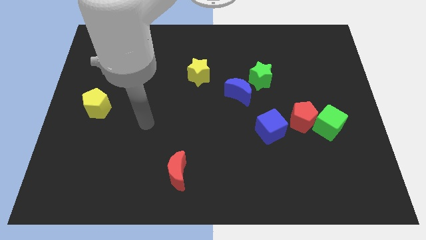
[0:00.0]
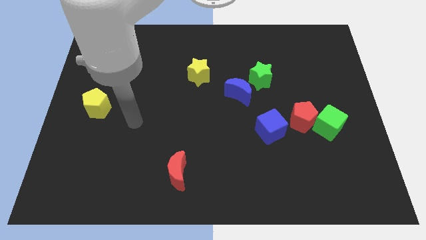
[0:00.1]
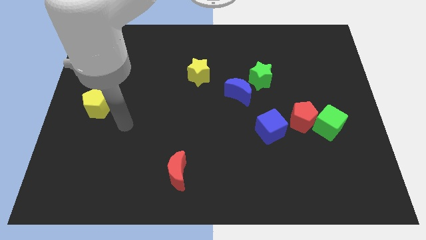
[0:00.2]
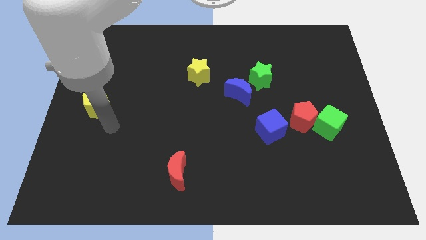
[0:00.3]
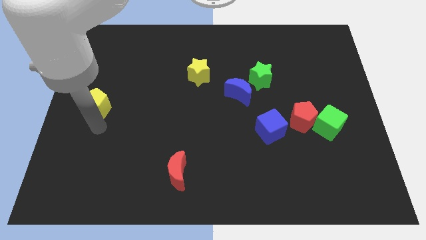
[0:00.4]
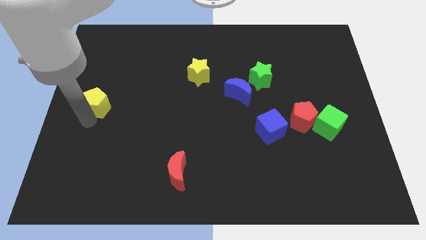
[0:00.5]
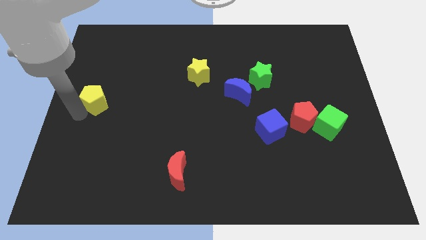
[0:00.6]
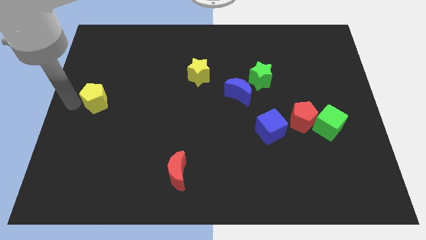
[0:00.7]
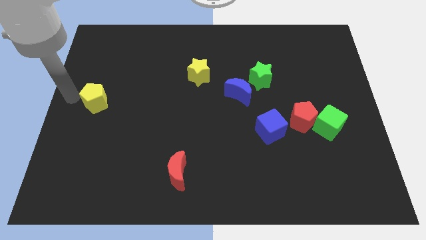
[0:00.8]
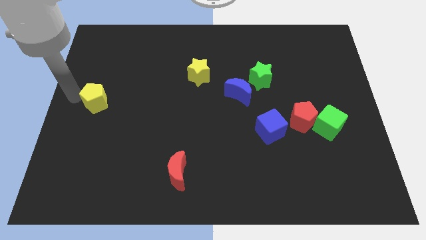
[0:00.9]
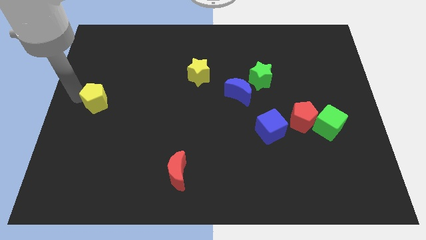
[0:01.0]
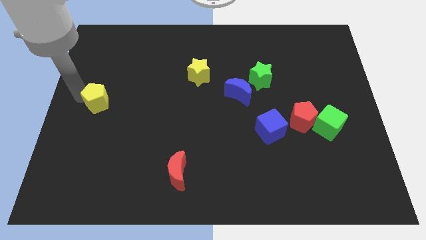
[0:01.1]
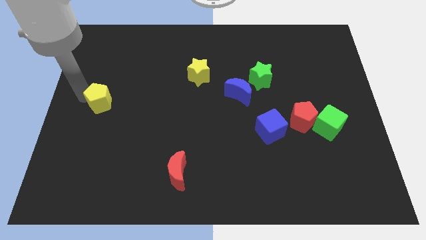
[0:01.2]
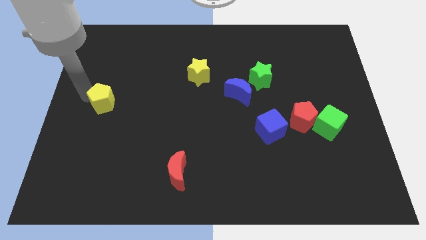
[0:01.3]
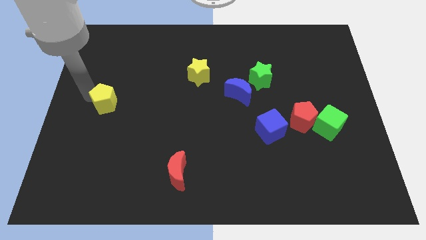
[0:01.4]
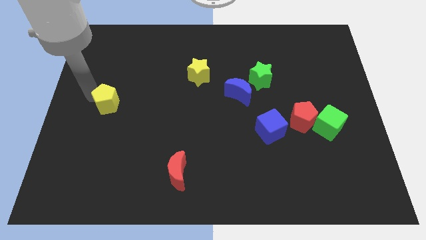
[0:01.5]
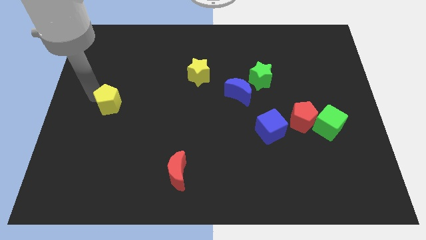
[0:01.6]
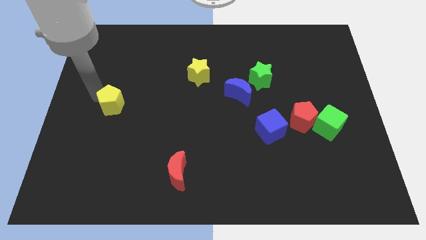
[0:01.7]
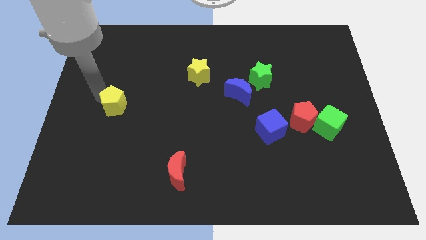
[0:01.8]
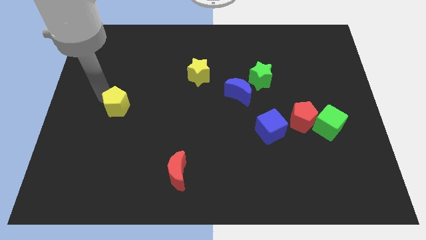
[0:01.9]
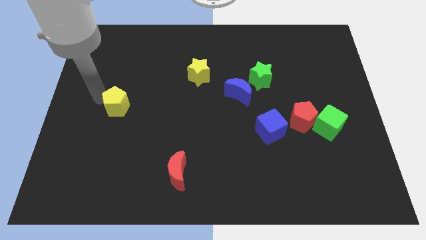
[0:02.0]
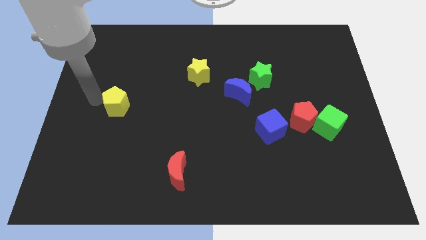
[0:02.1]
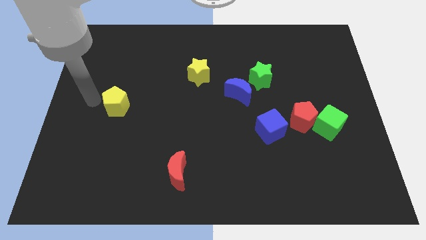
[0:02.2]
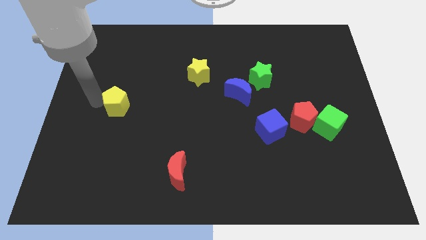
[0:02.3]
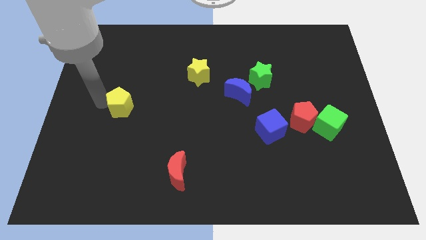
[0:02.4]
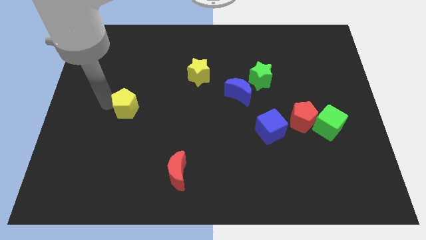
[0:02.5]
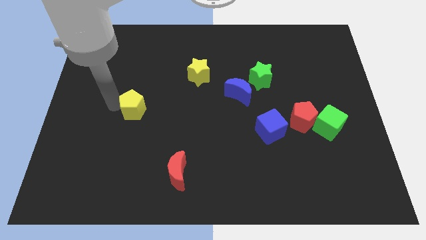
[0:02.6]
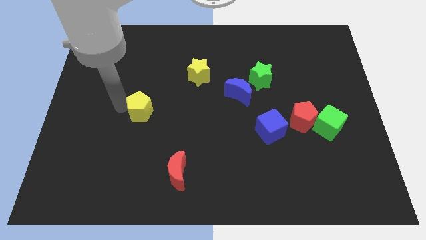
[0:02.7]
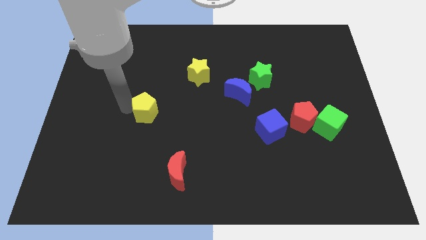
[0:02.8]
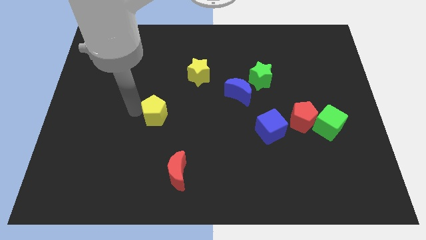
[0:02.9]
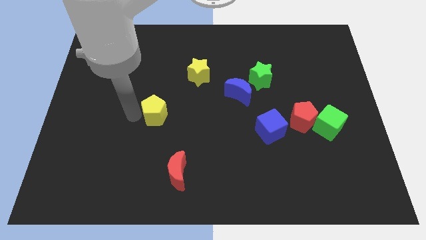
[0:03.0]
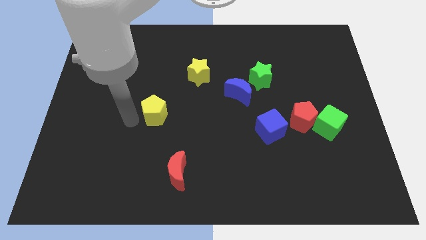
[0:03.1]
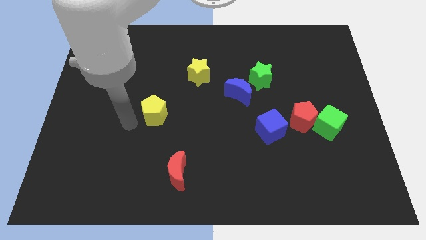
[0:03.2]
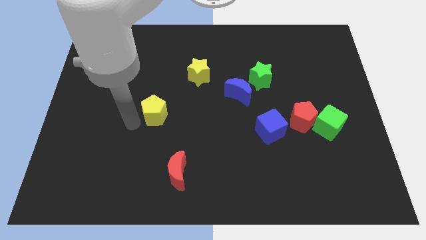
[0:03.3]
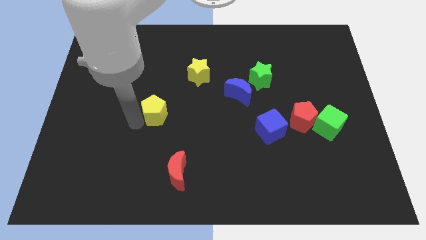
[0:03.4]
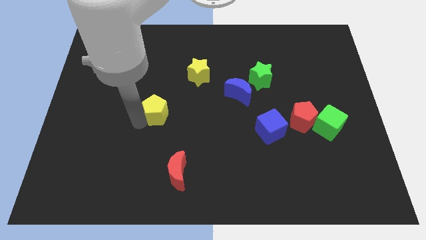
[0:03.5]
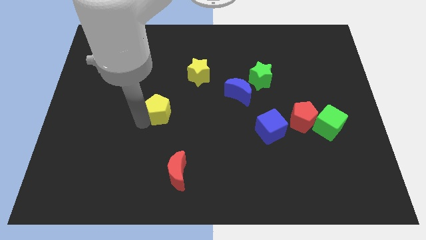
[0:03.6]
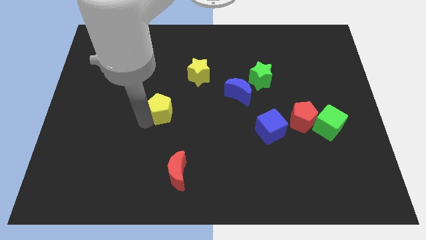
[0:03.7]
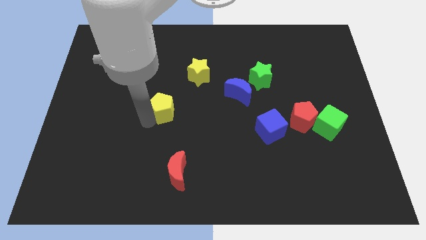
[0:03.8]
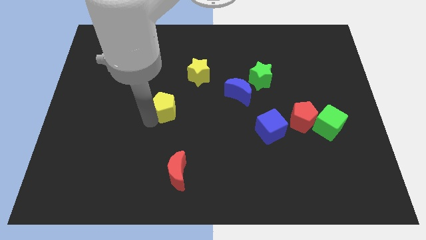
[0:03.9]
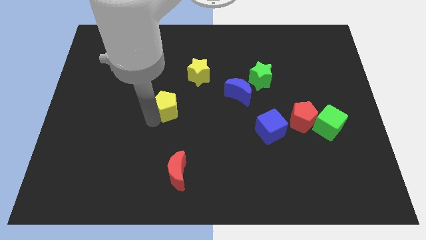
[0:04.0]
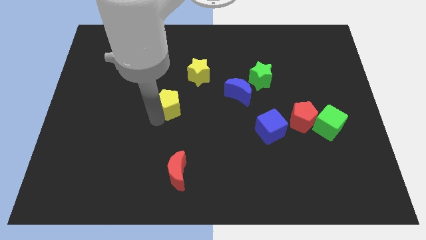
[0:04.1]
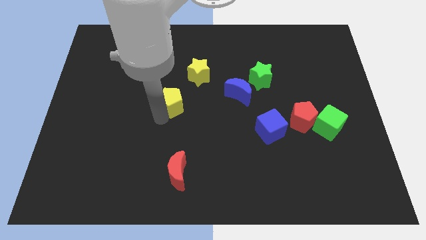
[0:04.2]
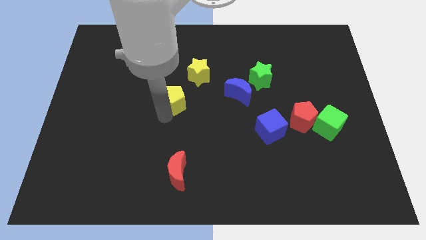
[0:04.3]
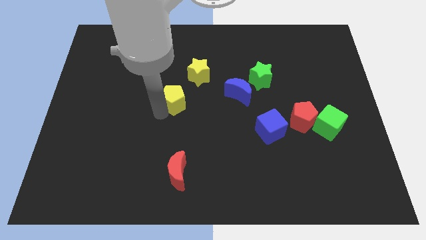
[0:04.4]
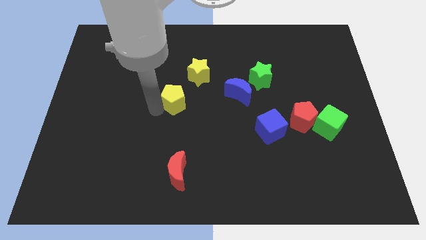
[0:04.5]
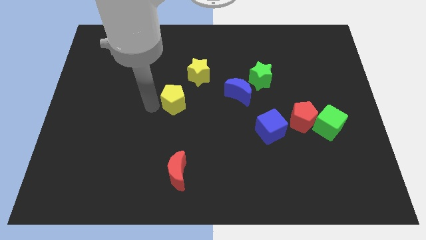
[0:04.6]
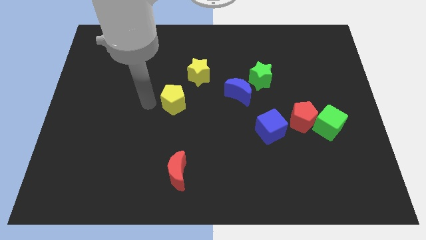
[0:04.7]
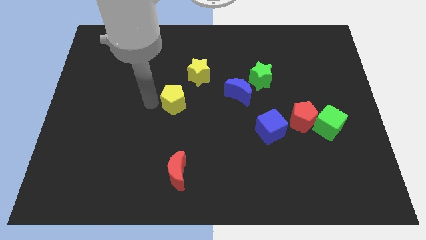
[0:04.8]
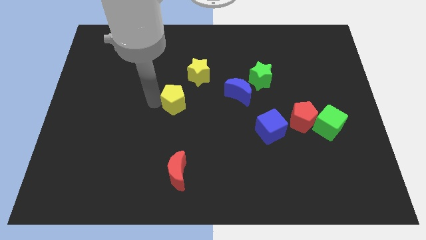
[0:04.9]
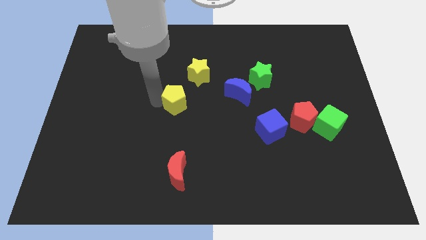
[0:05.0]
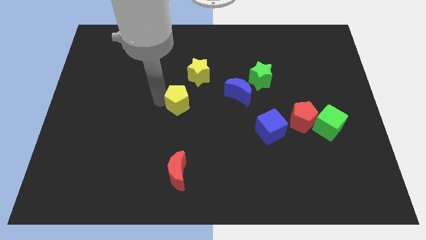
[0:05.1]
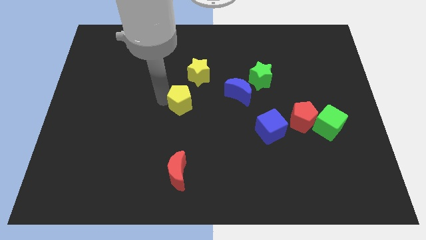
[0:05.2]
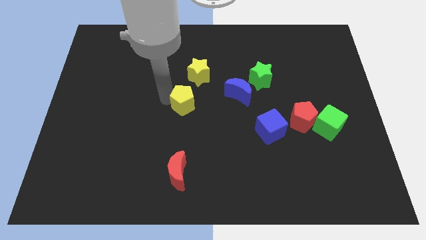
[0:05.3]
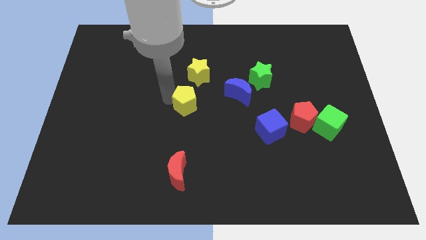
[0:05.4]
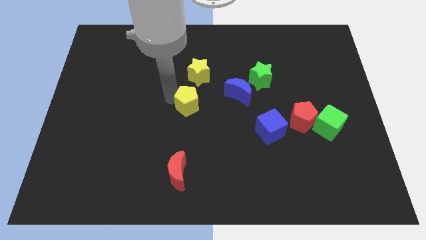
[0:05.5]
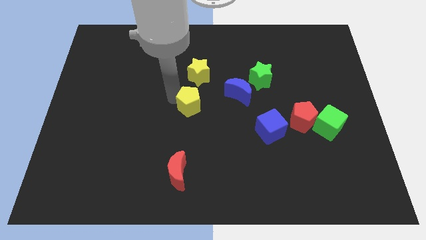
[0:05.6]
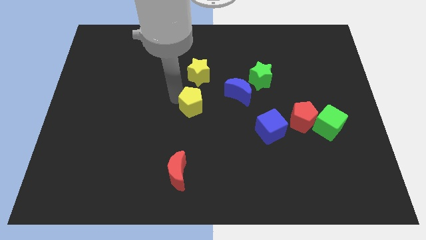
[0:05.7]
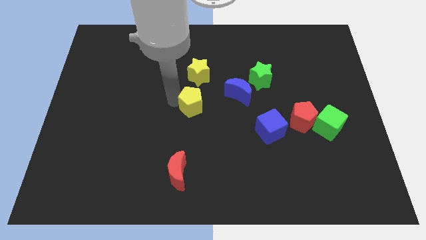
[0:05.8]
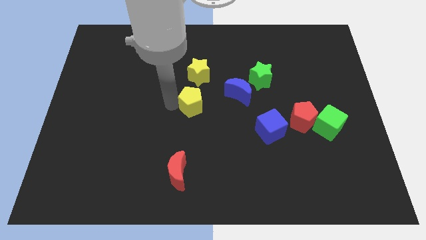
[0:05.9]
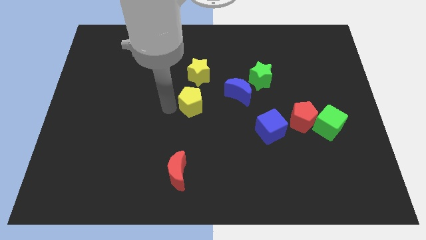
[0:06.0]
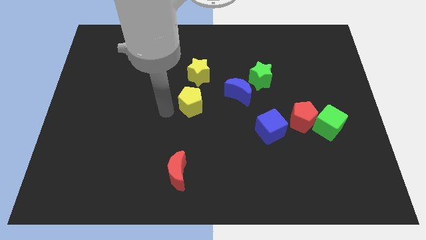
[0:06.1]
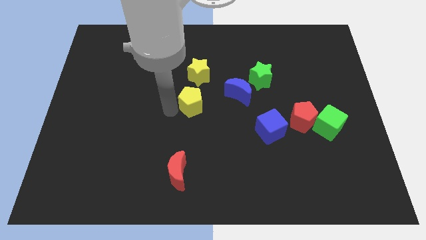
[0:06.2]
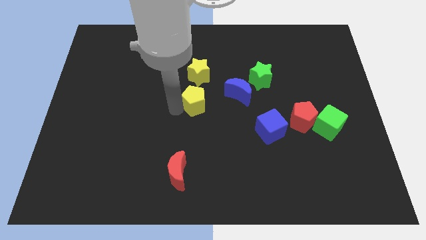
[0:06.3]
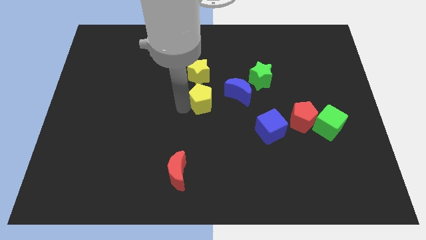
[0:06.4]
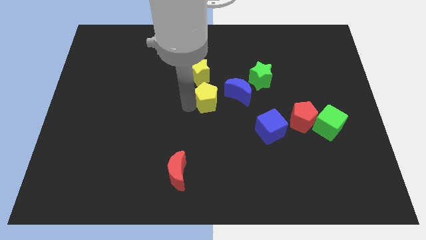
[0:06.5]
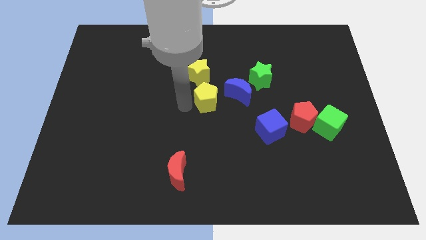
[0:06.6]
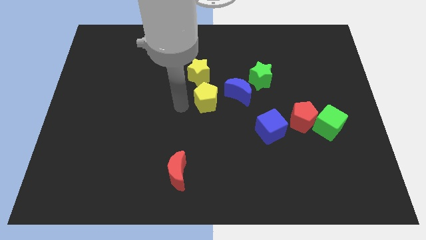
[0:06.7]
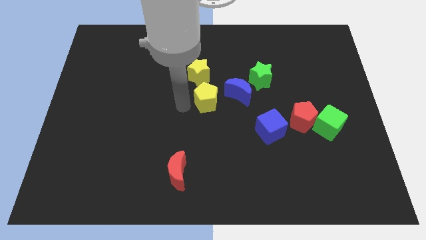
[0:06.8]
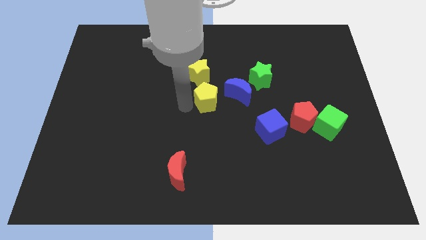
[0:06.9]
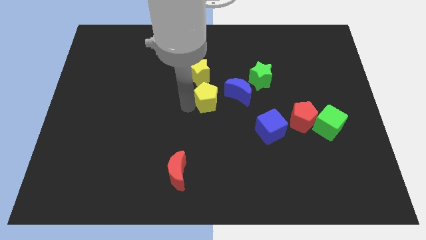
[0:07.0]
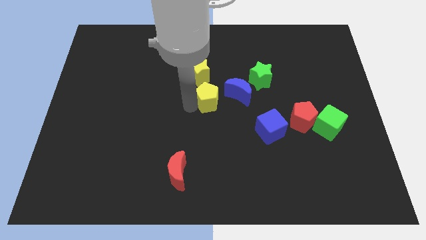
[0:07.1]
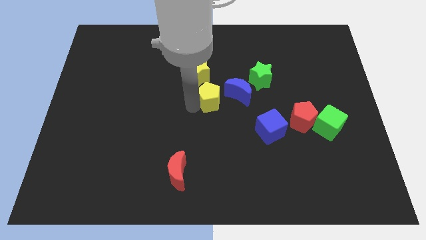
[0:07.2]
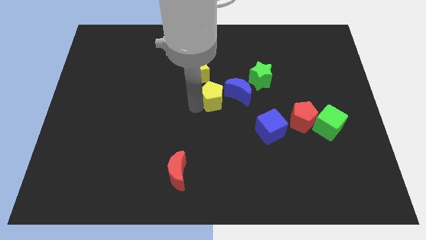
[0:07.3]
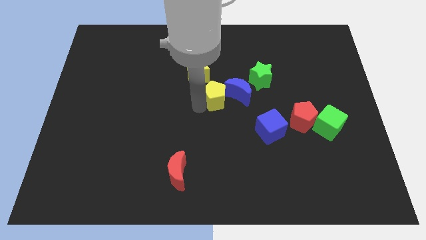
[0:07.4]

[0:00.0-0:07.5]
push the yellow pentagon close to the blue moon
